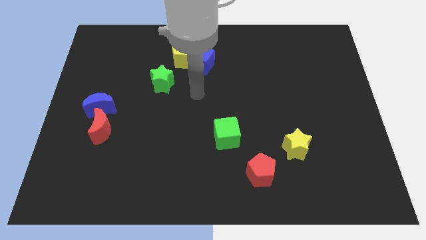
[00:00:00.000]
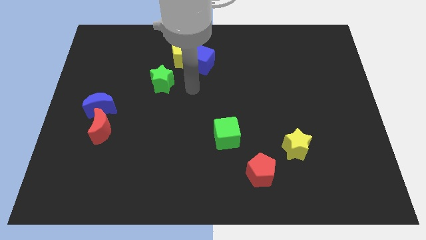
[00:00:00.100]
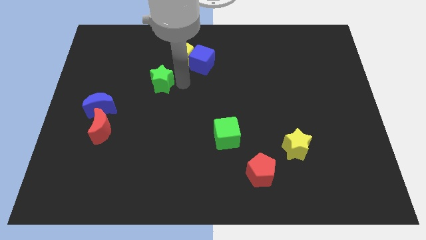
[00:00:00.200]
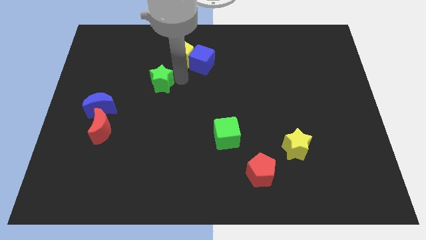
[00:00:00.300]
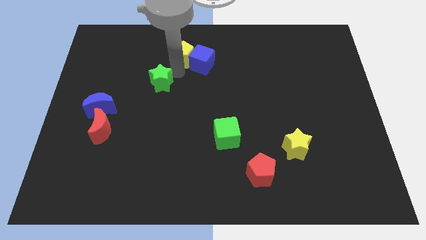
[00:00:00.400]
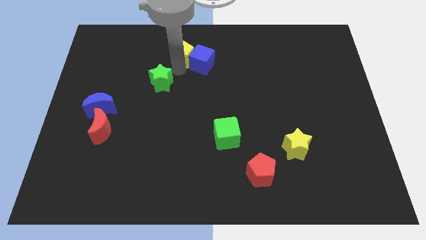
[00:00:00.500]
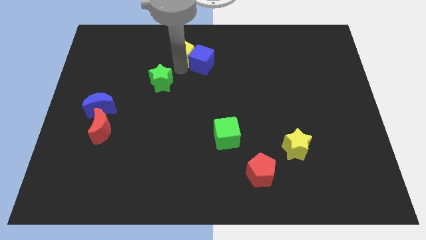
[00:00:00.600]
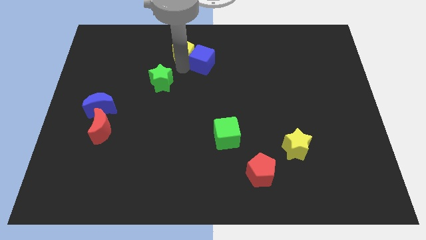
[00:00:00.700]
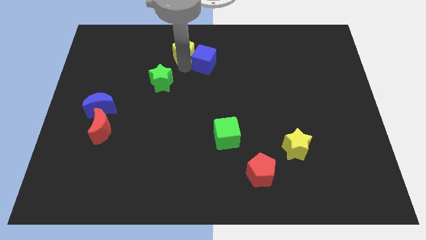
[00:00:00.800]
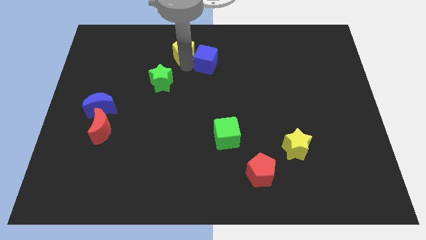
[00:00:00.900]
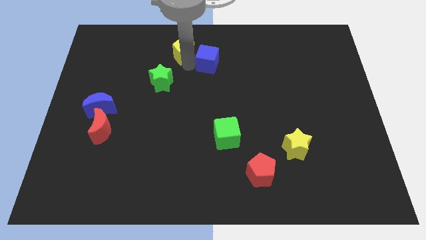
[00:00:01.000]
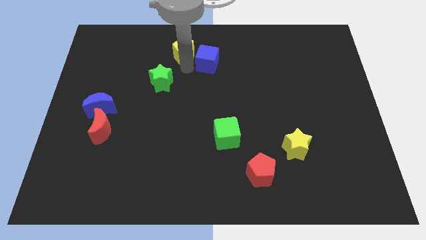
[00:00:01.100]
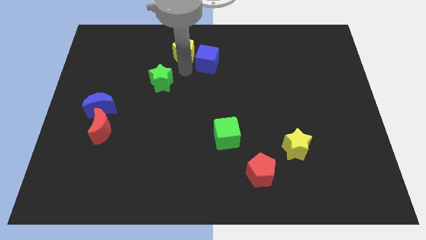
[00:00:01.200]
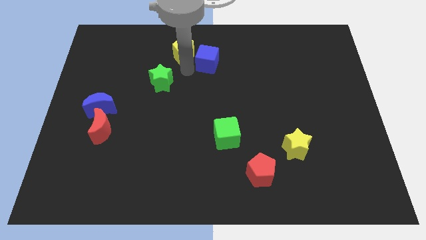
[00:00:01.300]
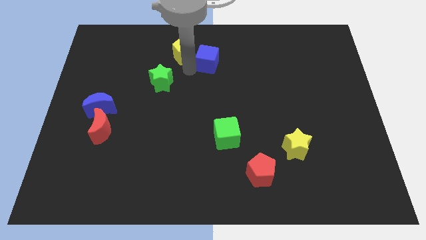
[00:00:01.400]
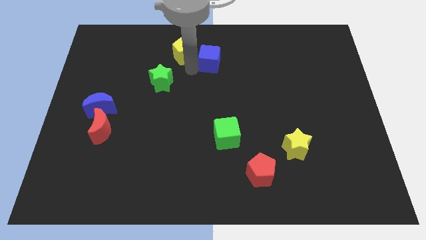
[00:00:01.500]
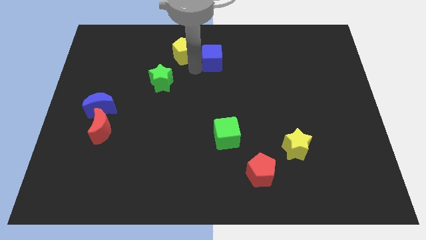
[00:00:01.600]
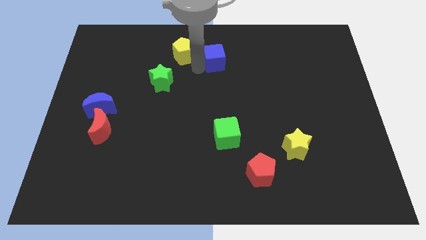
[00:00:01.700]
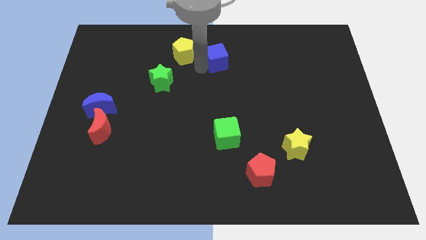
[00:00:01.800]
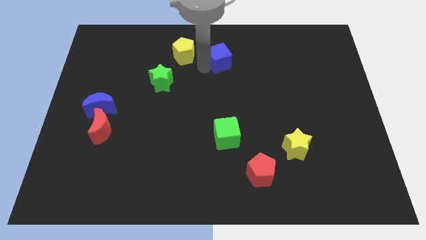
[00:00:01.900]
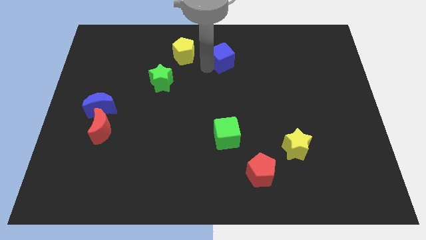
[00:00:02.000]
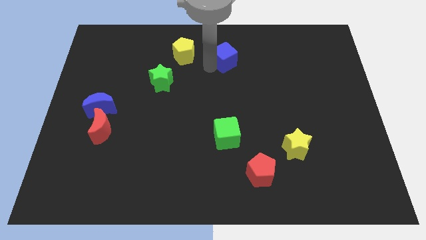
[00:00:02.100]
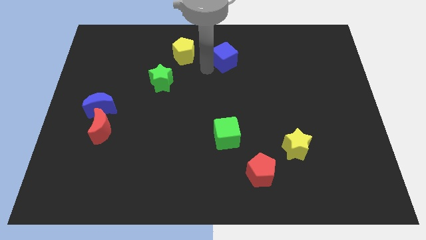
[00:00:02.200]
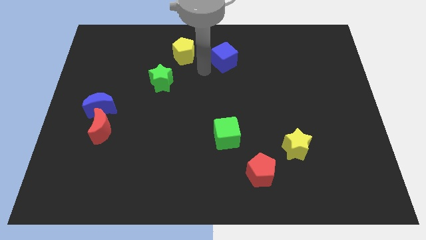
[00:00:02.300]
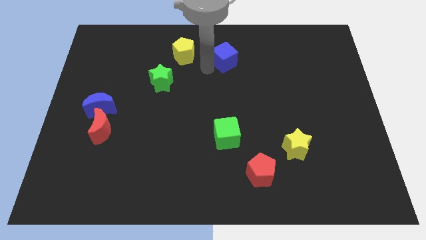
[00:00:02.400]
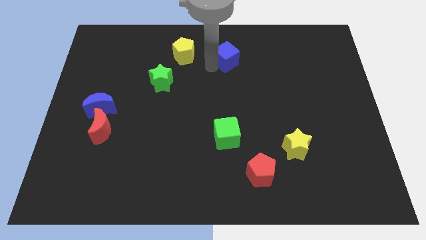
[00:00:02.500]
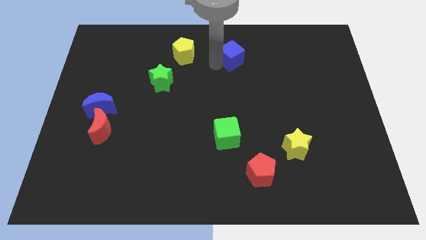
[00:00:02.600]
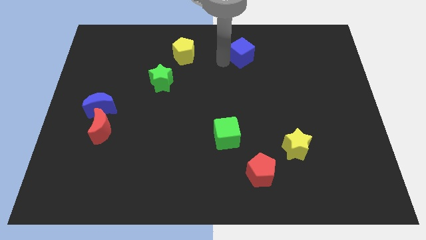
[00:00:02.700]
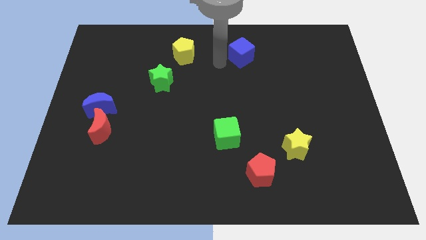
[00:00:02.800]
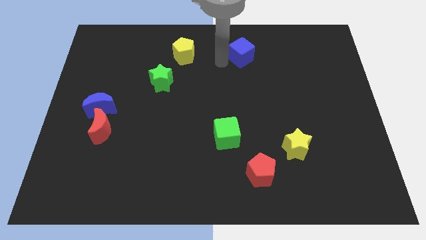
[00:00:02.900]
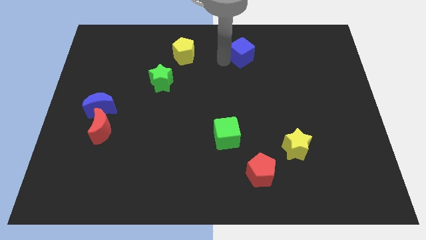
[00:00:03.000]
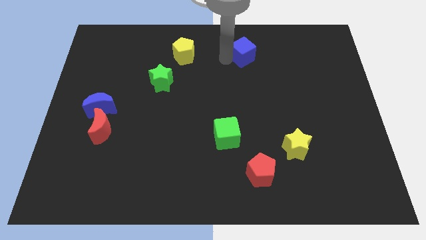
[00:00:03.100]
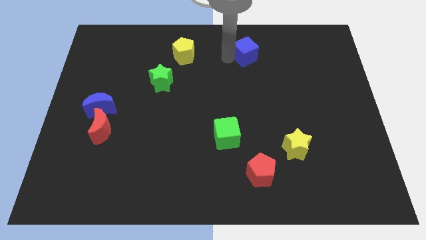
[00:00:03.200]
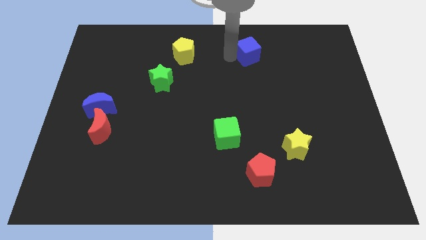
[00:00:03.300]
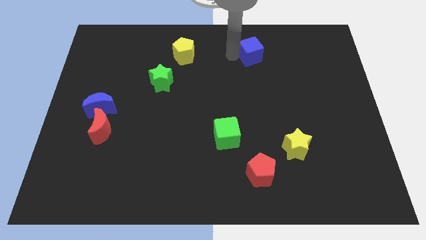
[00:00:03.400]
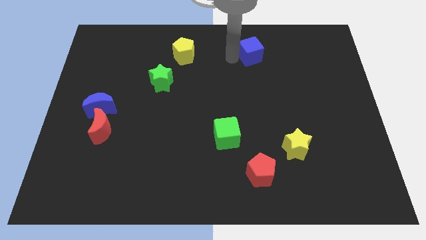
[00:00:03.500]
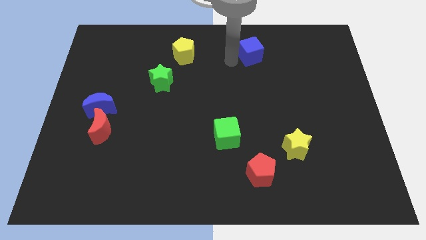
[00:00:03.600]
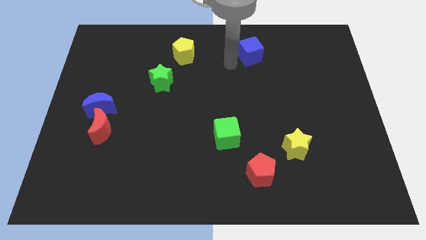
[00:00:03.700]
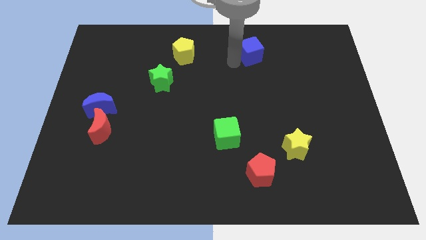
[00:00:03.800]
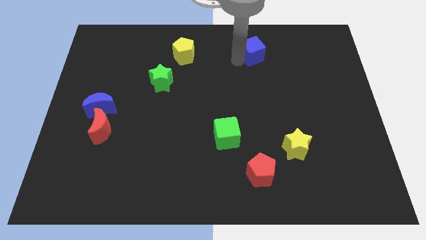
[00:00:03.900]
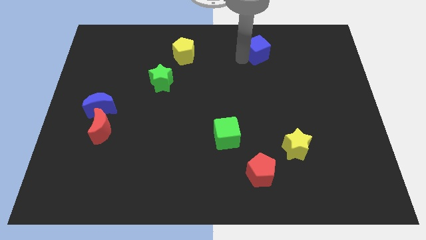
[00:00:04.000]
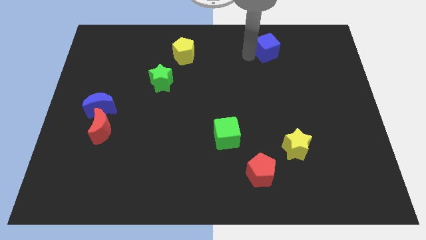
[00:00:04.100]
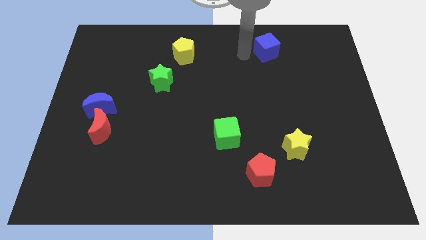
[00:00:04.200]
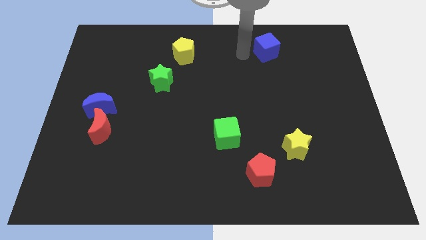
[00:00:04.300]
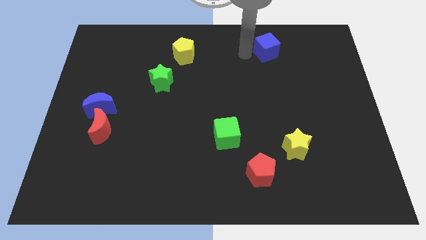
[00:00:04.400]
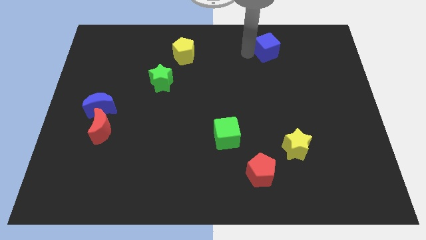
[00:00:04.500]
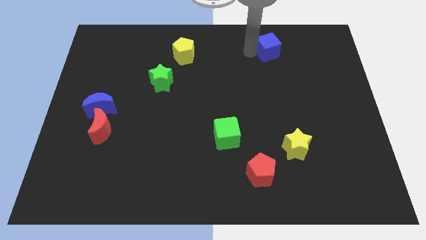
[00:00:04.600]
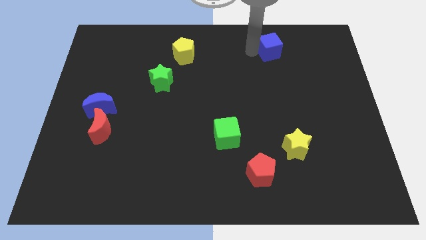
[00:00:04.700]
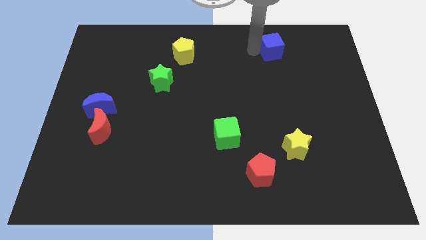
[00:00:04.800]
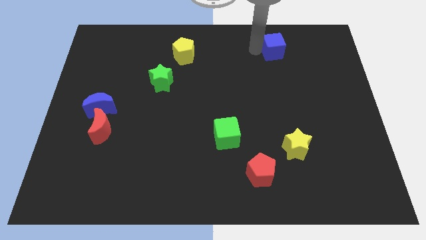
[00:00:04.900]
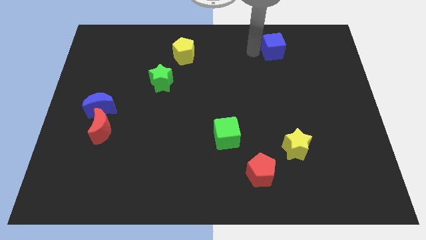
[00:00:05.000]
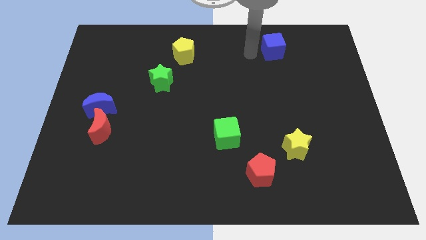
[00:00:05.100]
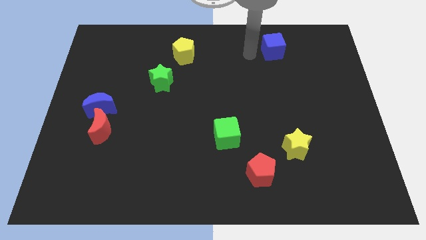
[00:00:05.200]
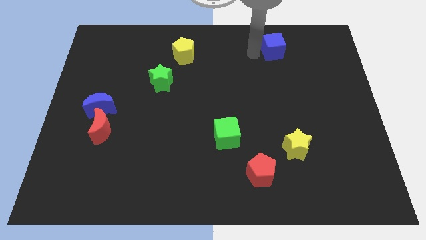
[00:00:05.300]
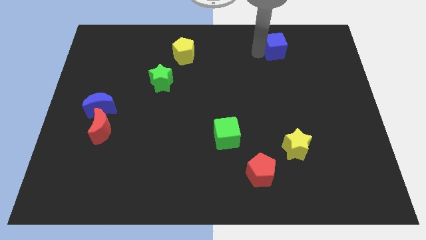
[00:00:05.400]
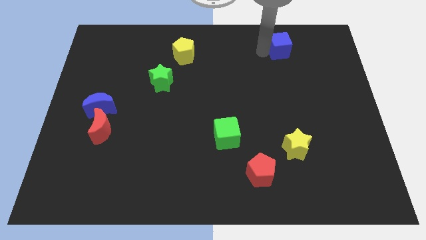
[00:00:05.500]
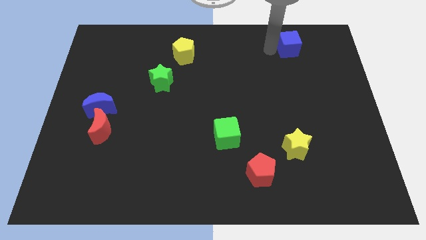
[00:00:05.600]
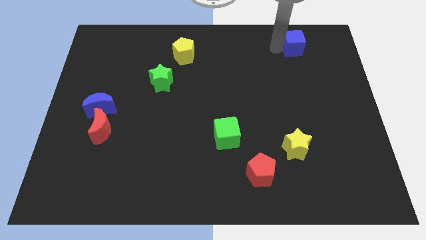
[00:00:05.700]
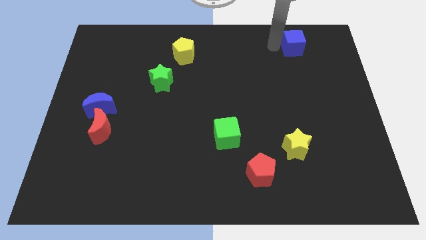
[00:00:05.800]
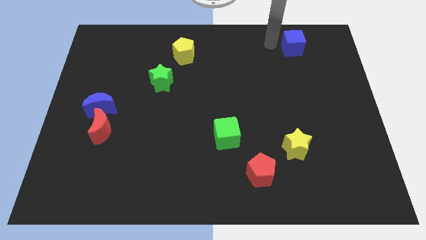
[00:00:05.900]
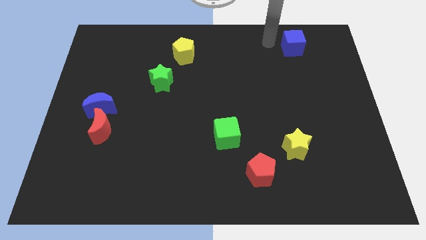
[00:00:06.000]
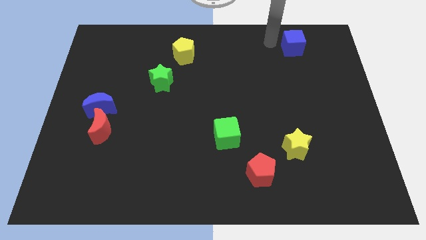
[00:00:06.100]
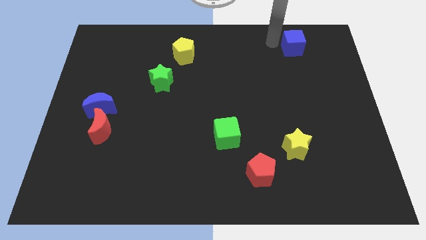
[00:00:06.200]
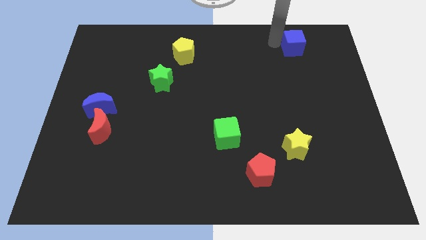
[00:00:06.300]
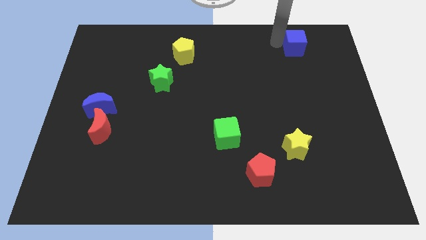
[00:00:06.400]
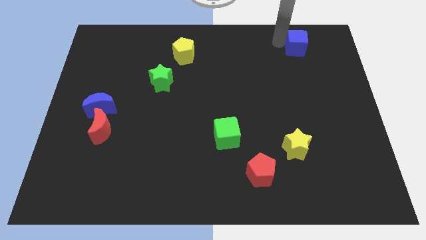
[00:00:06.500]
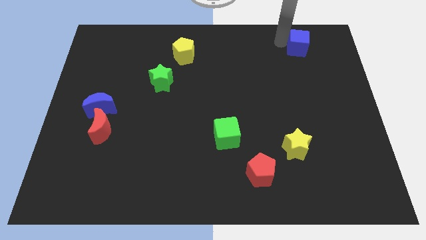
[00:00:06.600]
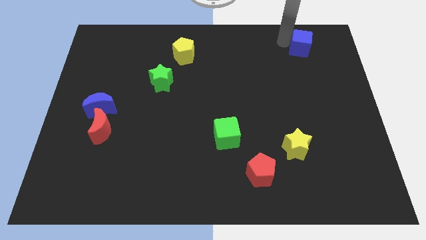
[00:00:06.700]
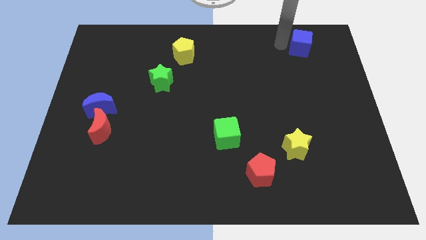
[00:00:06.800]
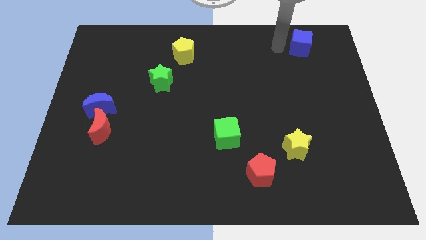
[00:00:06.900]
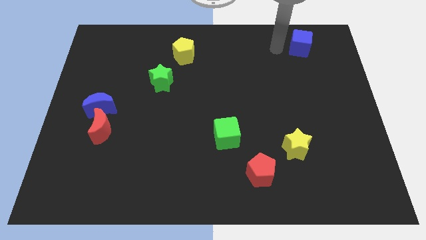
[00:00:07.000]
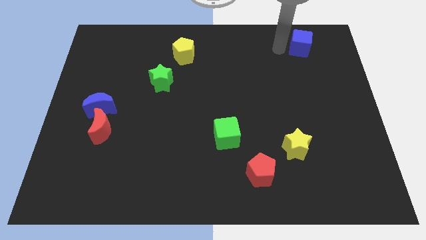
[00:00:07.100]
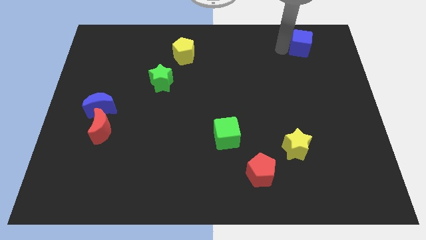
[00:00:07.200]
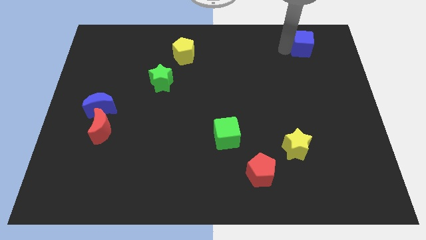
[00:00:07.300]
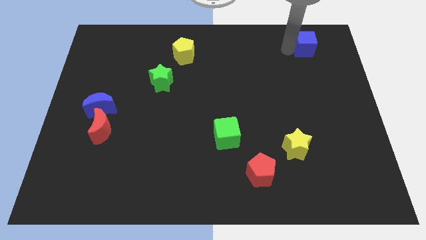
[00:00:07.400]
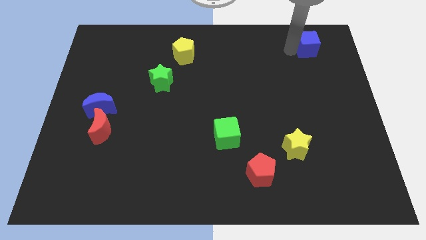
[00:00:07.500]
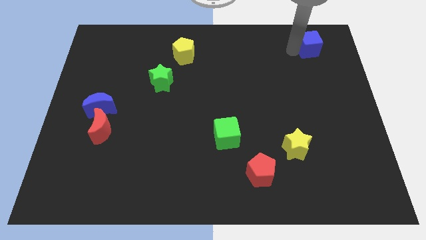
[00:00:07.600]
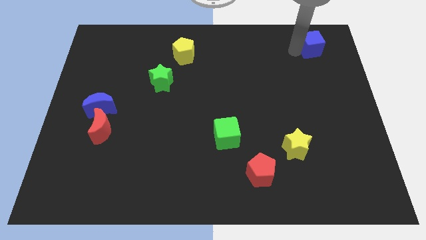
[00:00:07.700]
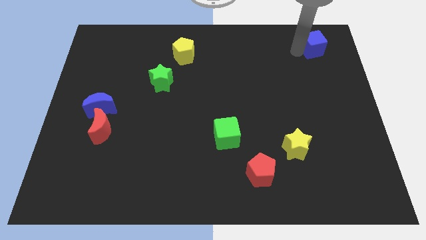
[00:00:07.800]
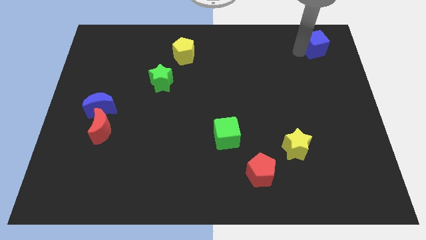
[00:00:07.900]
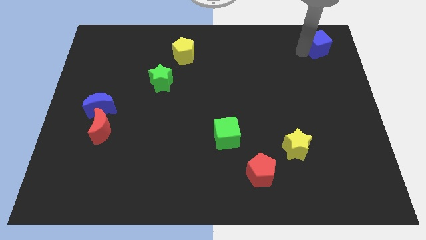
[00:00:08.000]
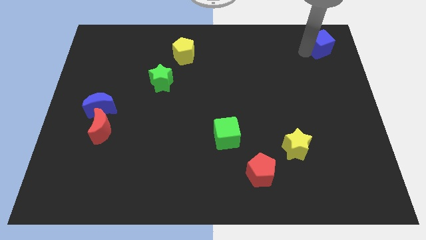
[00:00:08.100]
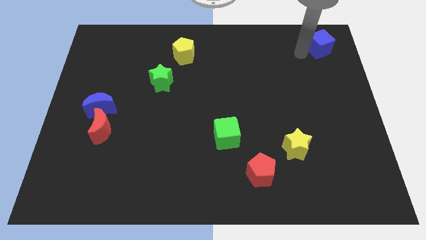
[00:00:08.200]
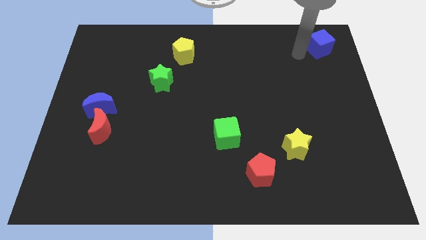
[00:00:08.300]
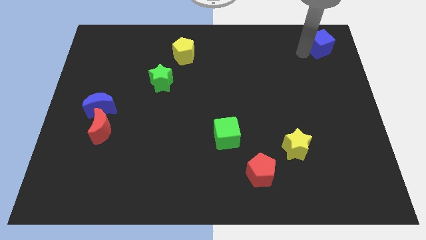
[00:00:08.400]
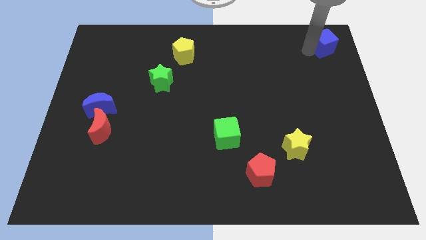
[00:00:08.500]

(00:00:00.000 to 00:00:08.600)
move the blue cube to the top right corner
